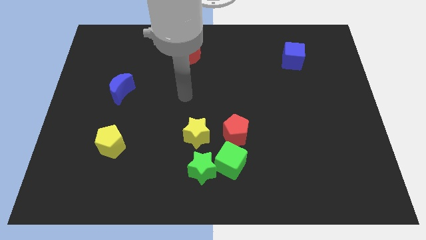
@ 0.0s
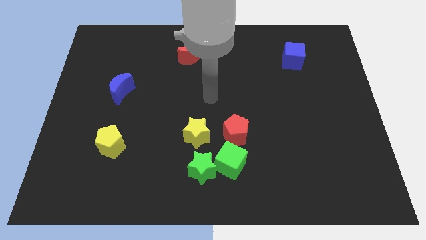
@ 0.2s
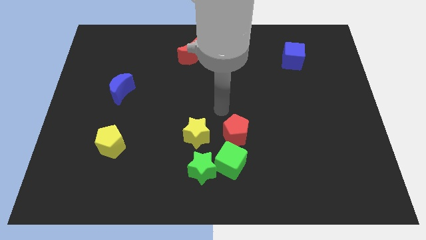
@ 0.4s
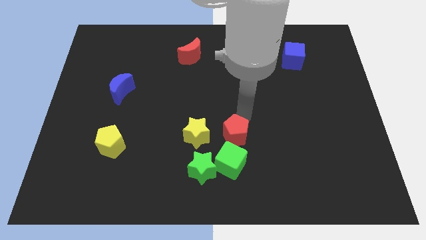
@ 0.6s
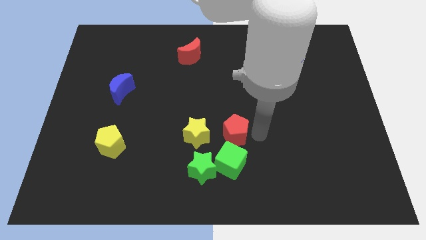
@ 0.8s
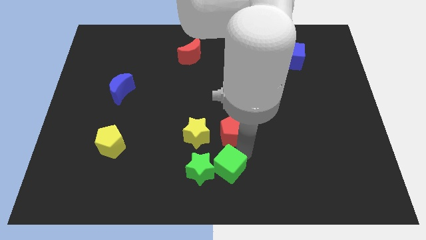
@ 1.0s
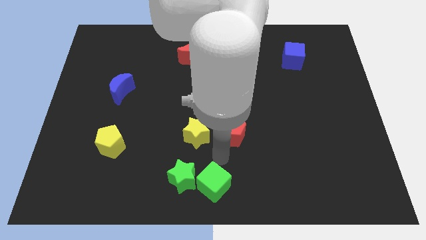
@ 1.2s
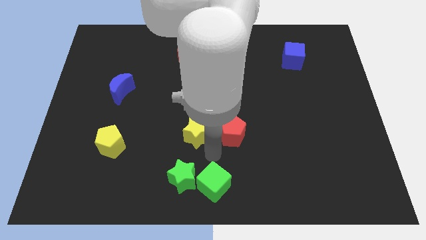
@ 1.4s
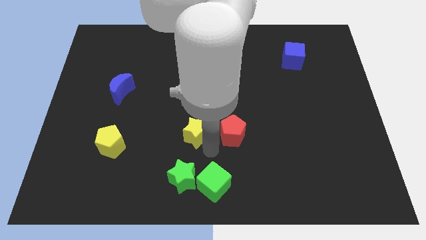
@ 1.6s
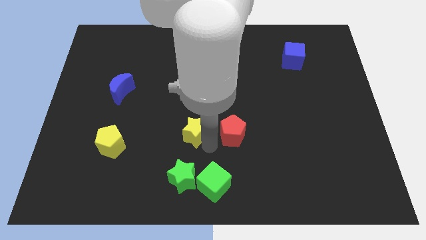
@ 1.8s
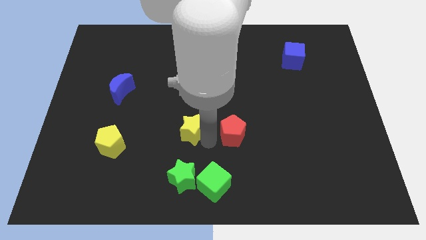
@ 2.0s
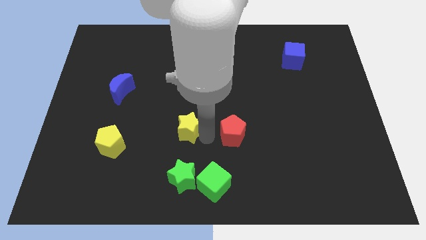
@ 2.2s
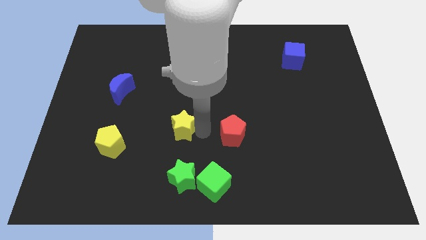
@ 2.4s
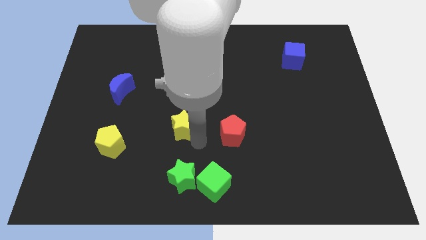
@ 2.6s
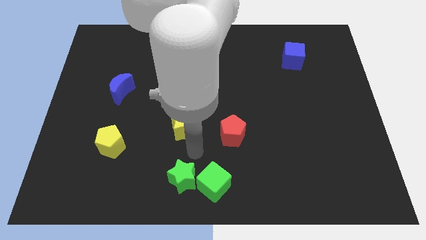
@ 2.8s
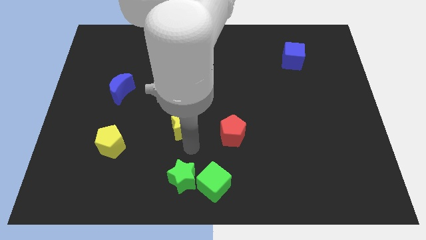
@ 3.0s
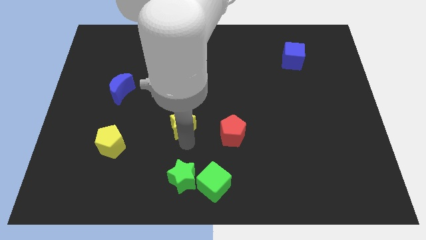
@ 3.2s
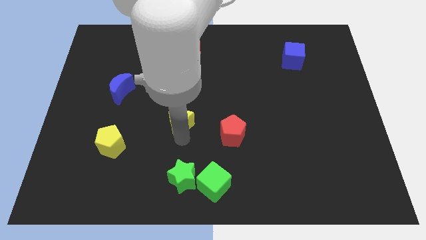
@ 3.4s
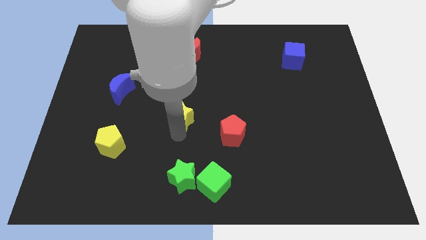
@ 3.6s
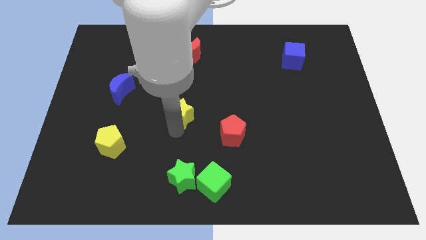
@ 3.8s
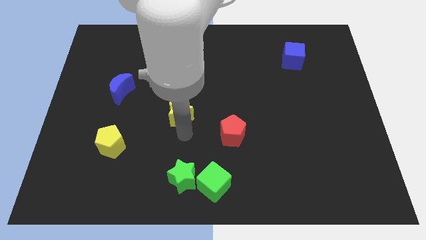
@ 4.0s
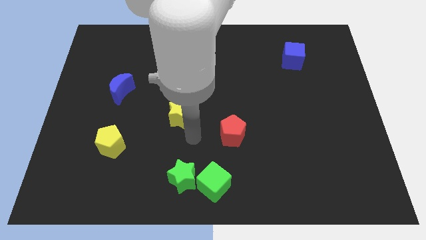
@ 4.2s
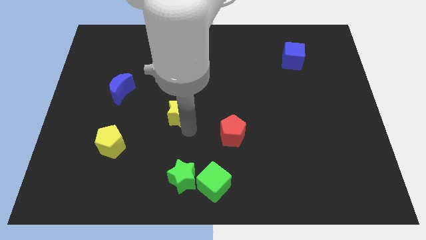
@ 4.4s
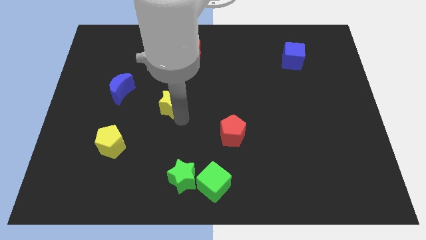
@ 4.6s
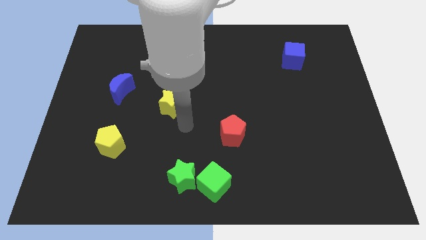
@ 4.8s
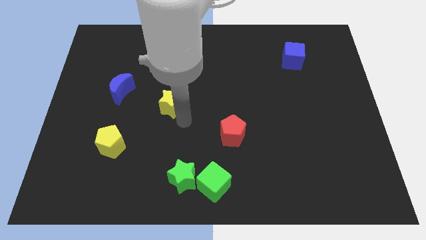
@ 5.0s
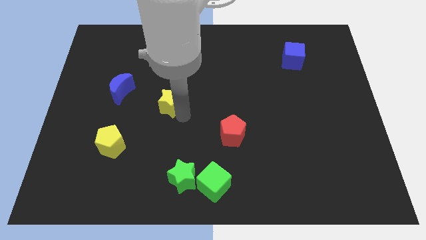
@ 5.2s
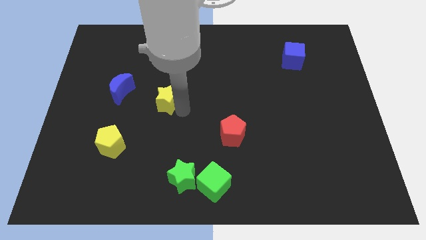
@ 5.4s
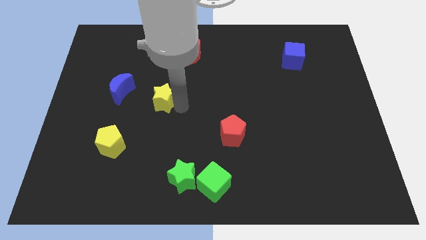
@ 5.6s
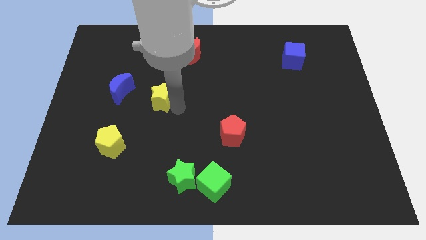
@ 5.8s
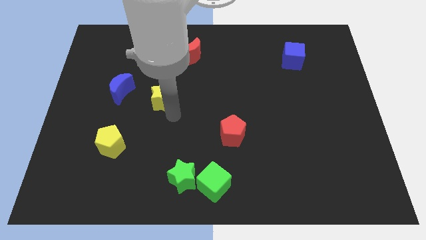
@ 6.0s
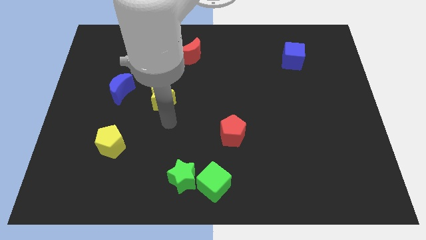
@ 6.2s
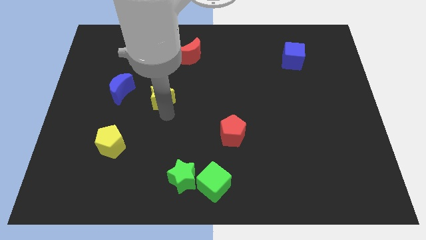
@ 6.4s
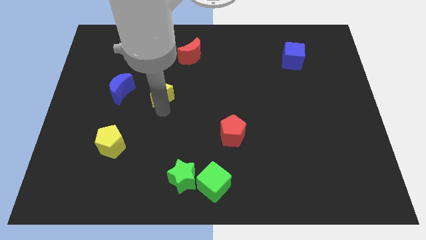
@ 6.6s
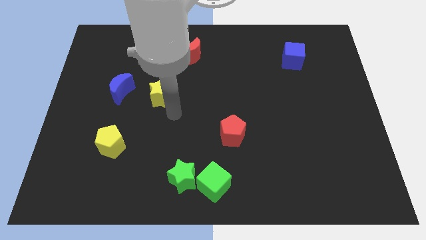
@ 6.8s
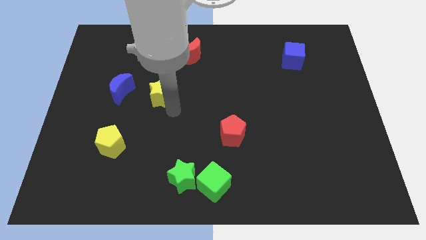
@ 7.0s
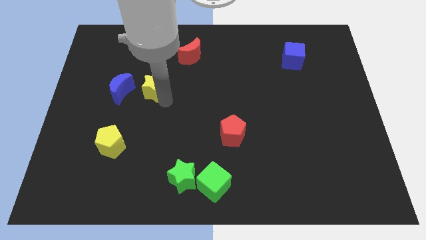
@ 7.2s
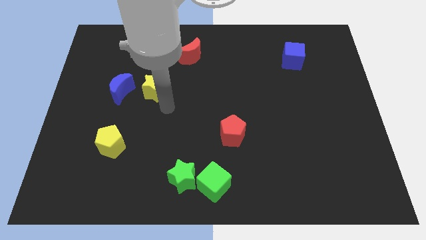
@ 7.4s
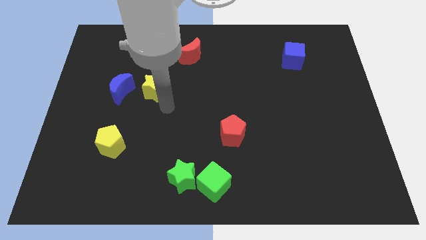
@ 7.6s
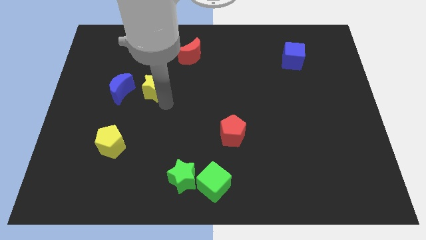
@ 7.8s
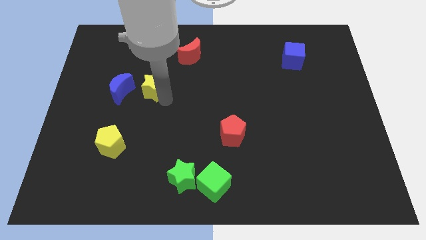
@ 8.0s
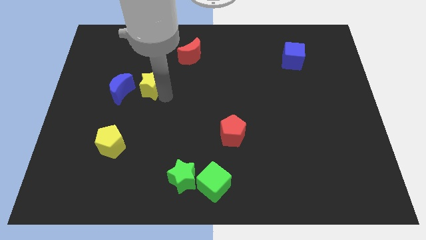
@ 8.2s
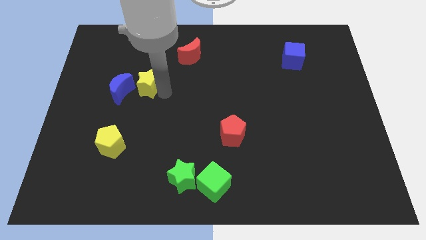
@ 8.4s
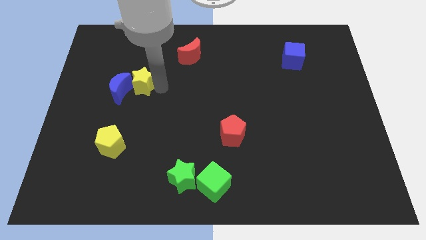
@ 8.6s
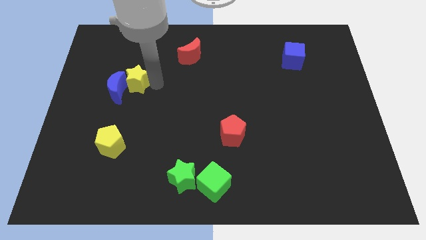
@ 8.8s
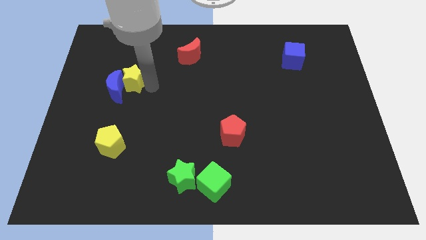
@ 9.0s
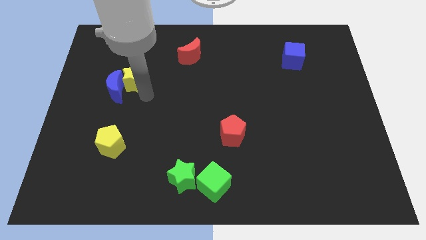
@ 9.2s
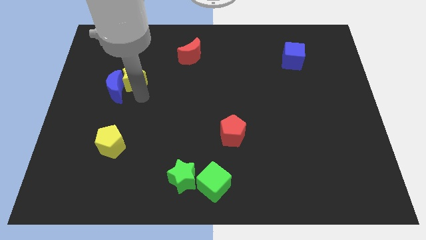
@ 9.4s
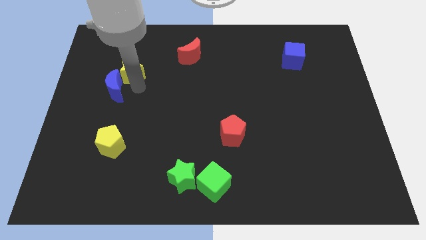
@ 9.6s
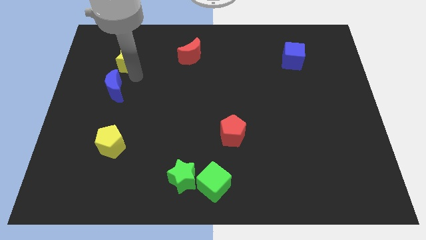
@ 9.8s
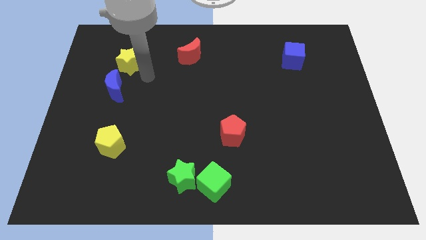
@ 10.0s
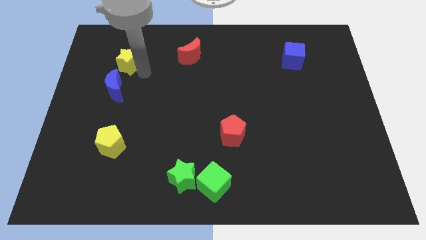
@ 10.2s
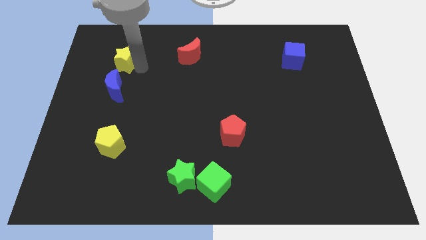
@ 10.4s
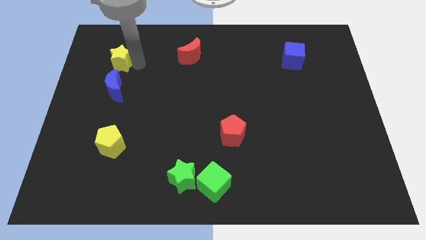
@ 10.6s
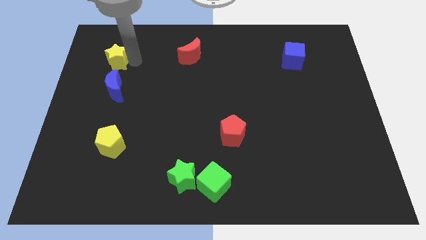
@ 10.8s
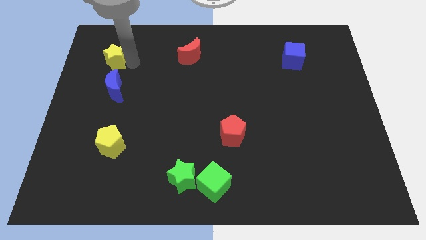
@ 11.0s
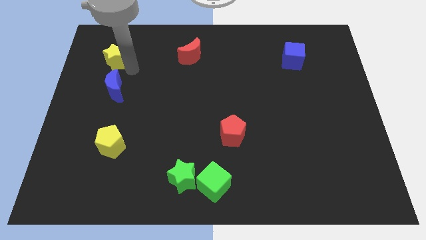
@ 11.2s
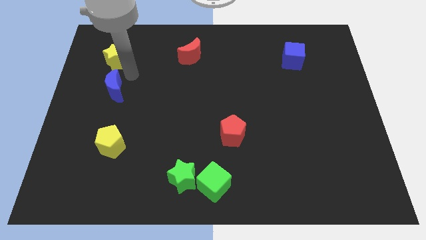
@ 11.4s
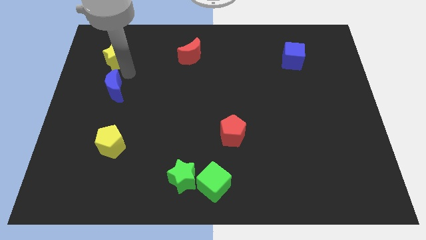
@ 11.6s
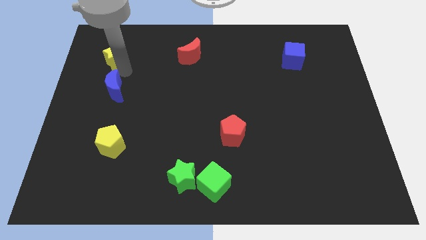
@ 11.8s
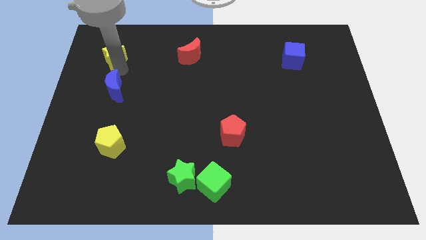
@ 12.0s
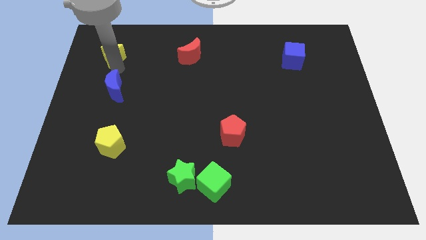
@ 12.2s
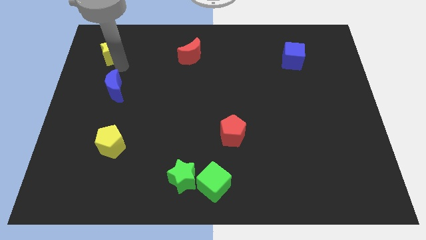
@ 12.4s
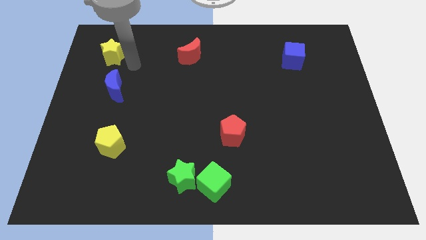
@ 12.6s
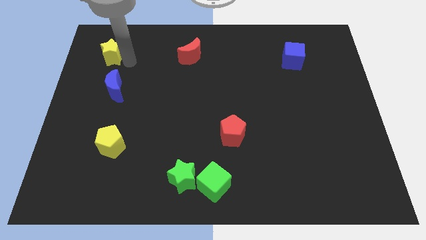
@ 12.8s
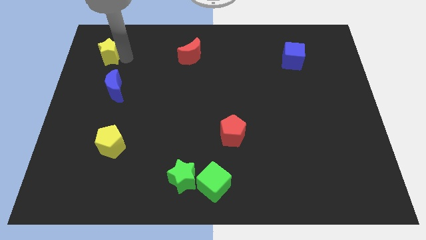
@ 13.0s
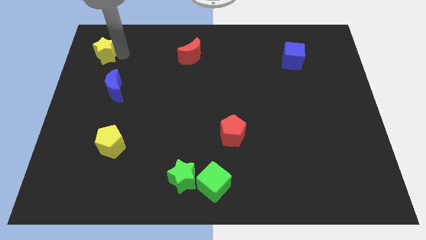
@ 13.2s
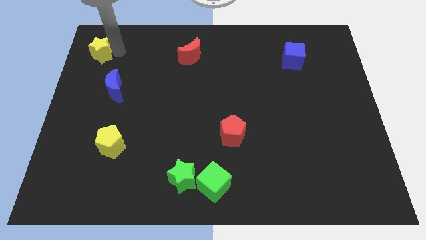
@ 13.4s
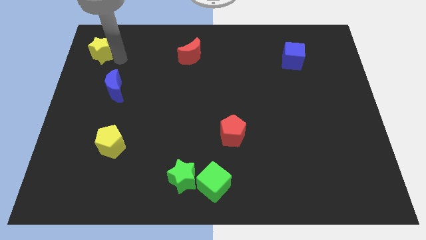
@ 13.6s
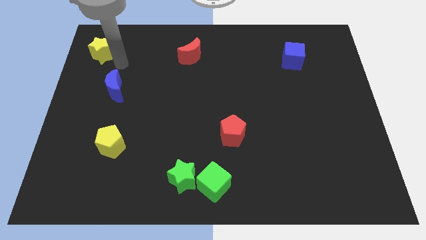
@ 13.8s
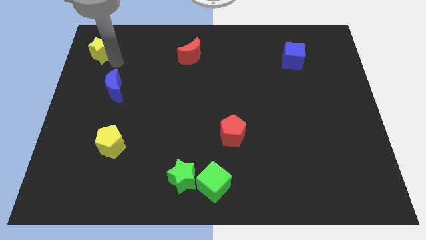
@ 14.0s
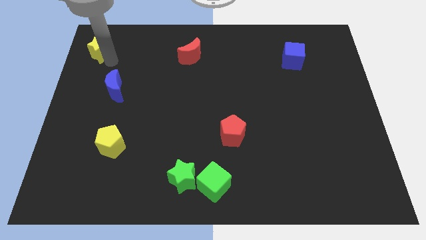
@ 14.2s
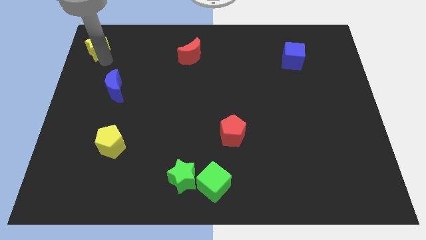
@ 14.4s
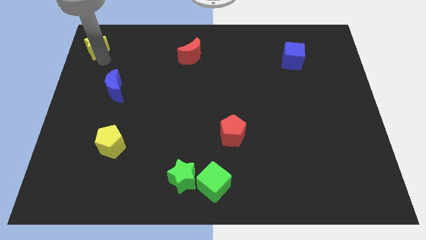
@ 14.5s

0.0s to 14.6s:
put the yellow star to the upper left corner
